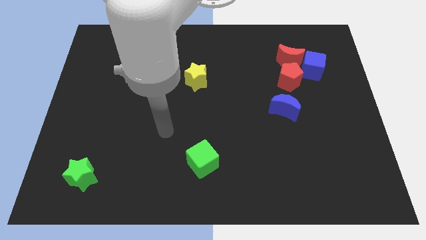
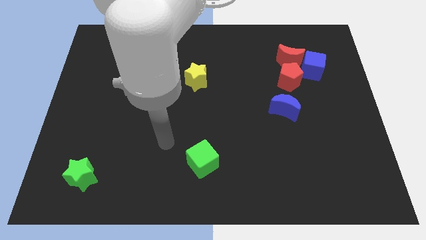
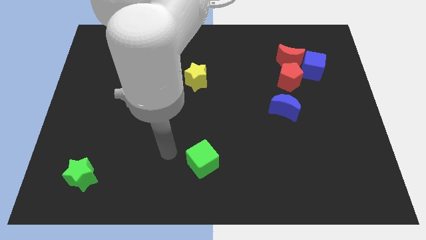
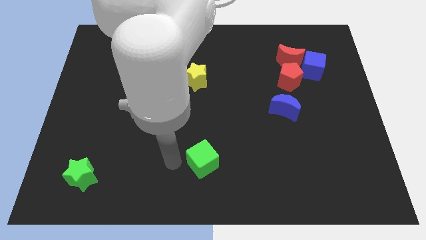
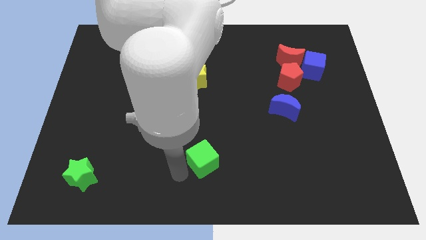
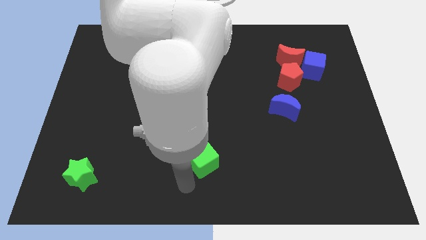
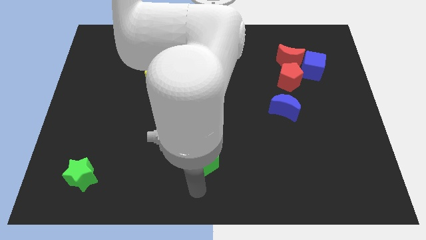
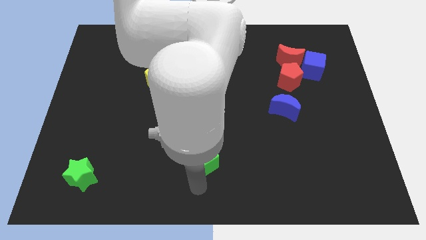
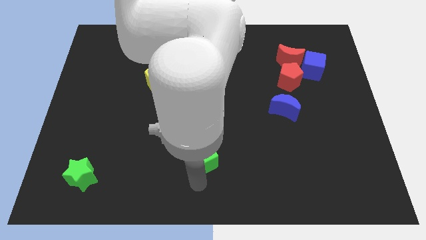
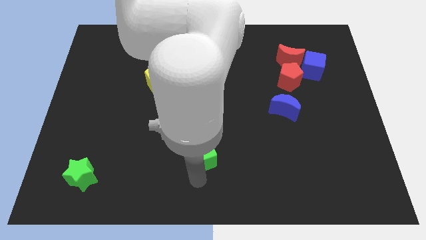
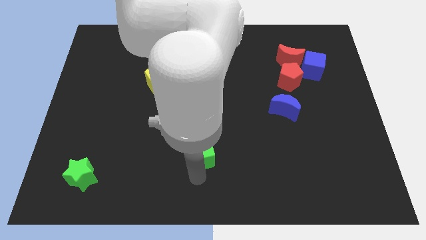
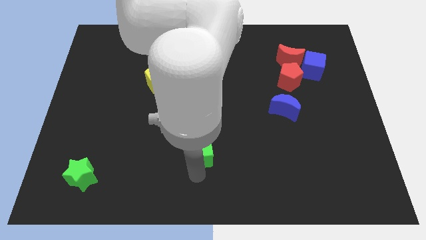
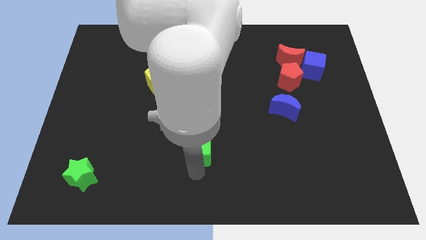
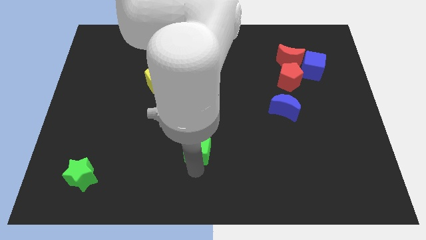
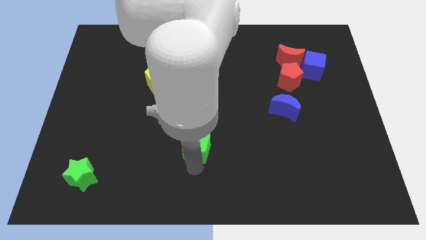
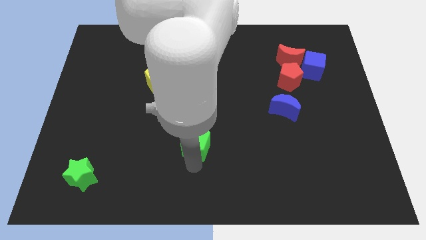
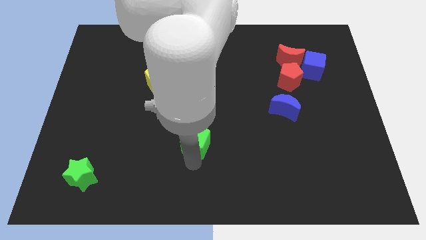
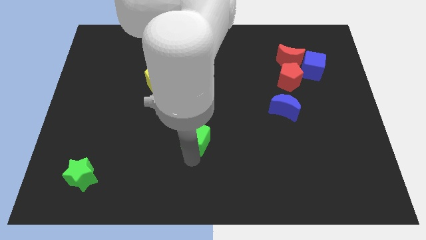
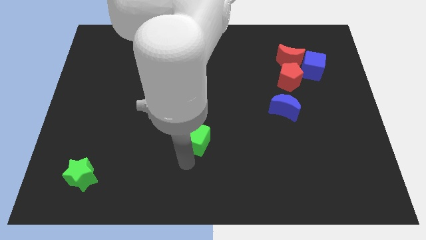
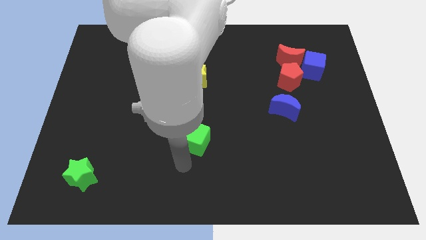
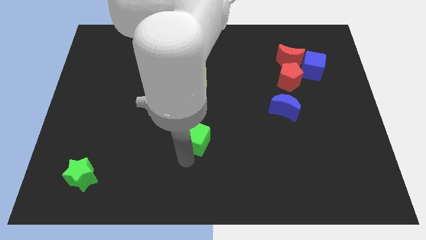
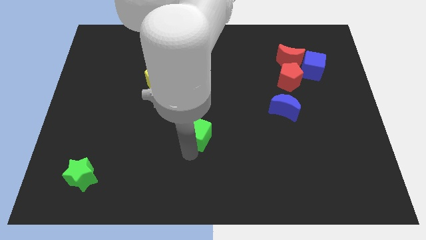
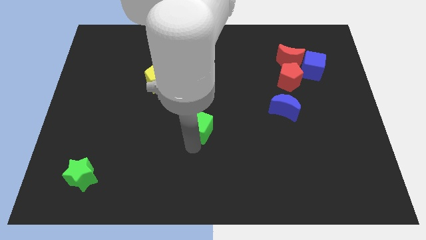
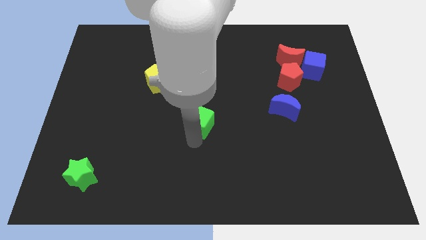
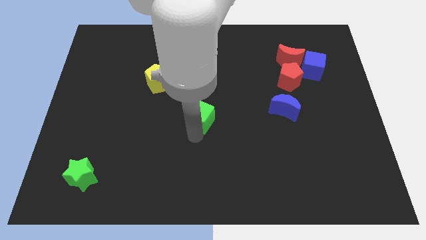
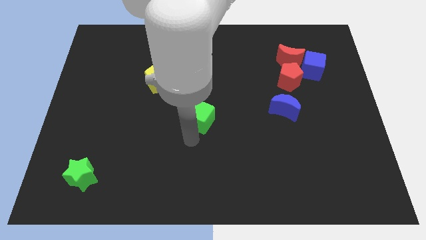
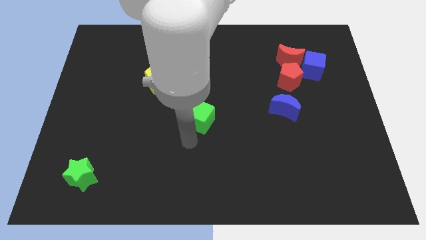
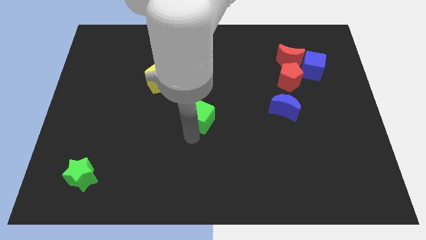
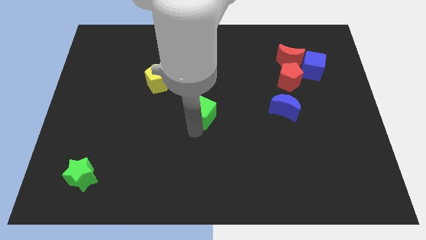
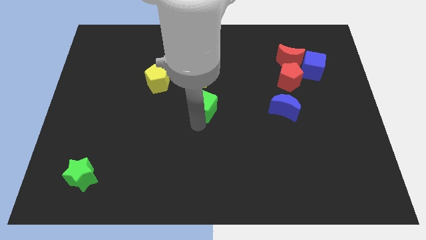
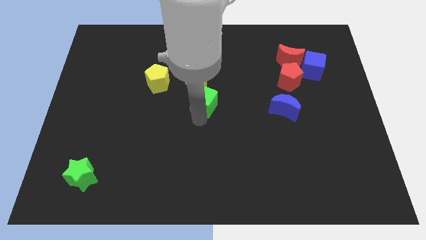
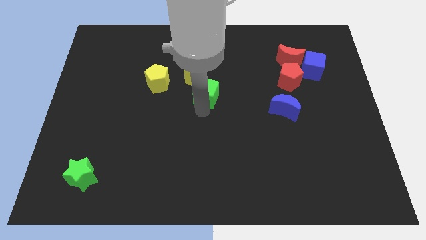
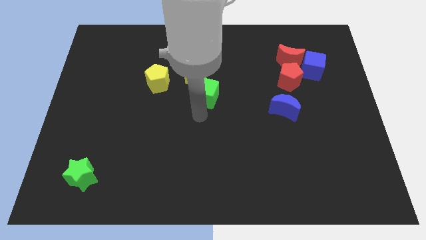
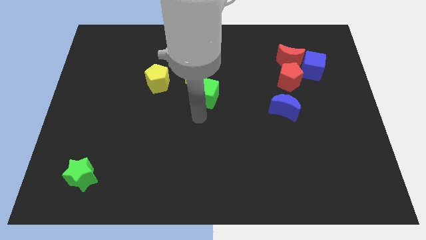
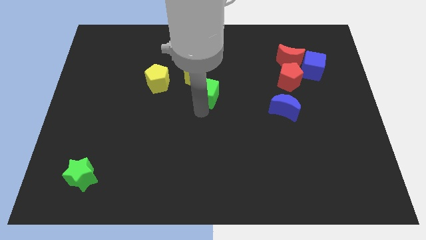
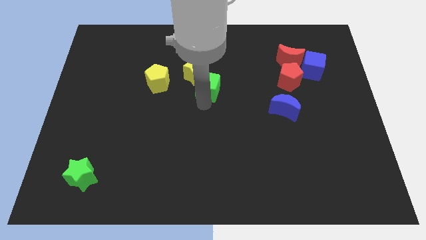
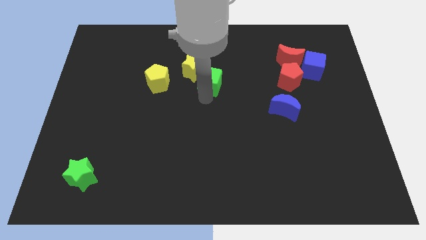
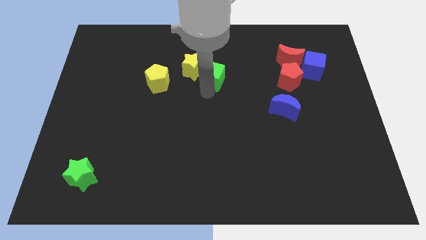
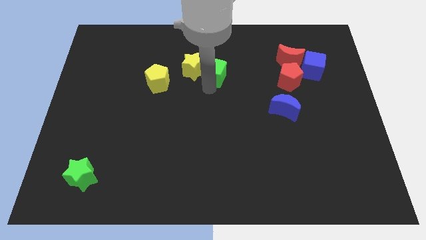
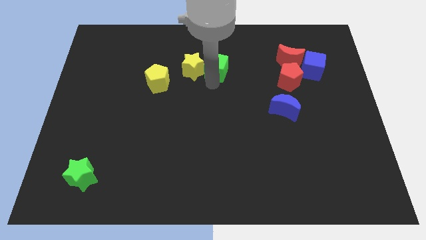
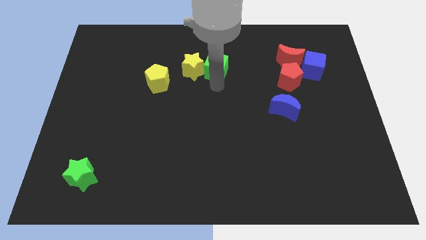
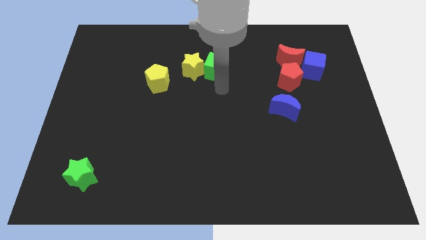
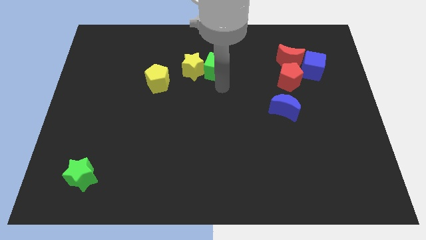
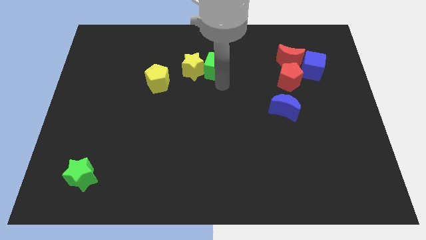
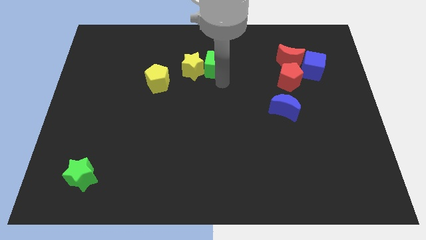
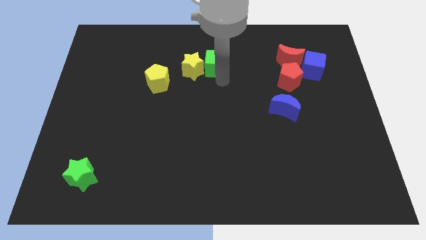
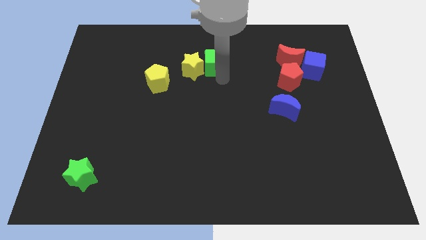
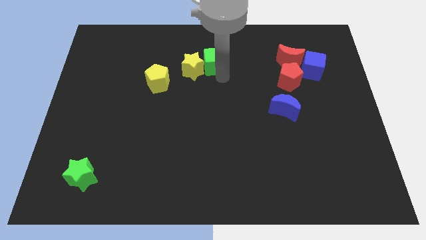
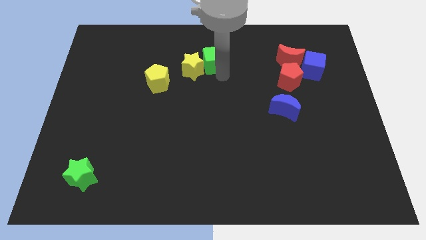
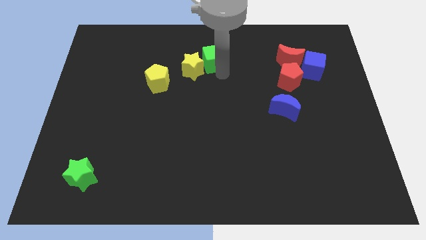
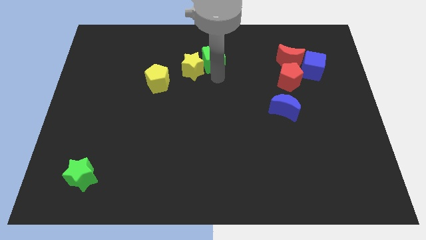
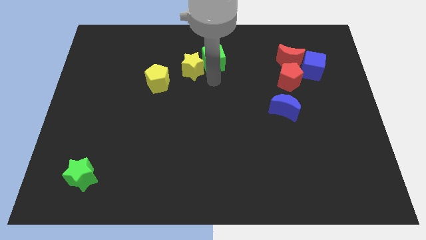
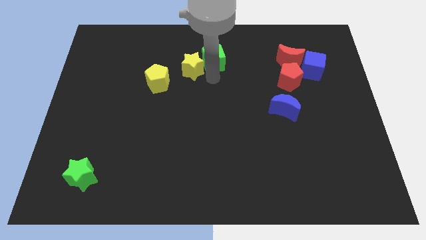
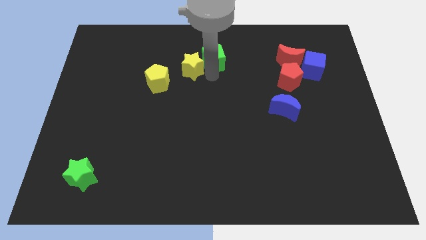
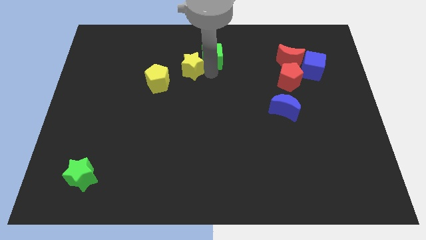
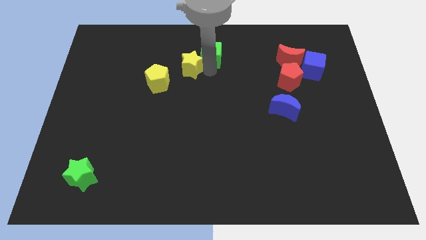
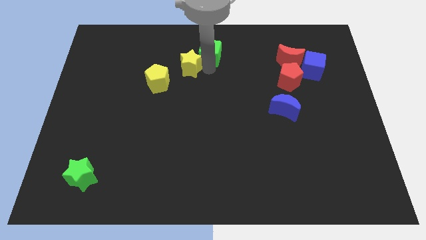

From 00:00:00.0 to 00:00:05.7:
put the green cube to the top side

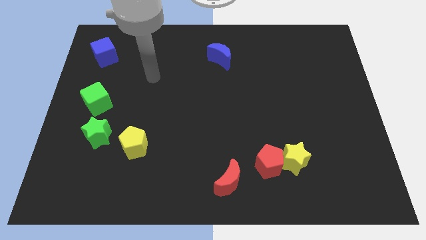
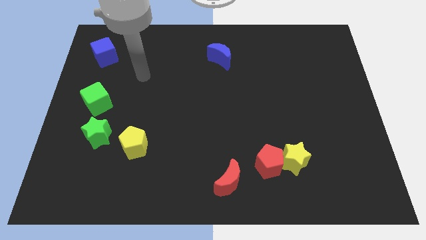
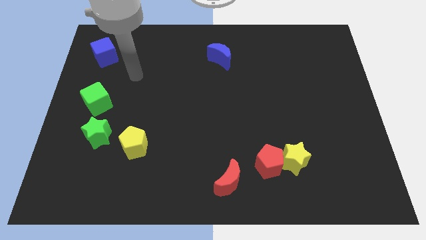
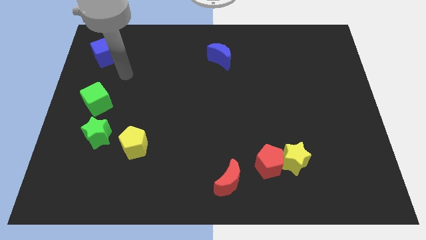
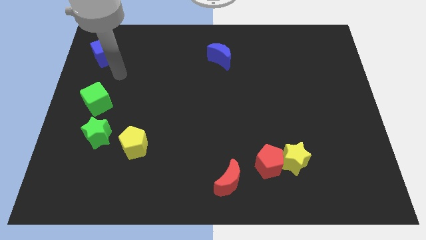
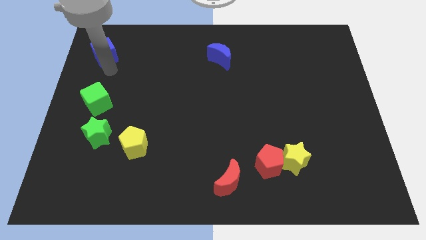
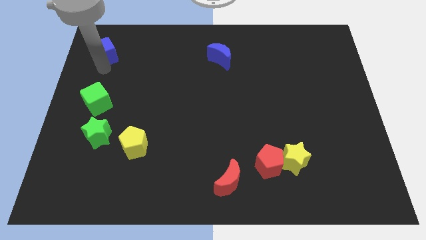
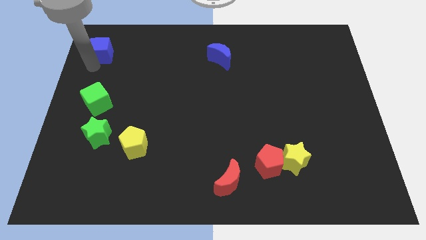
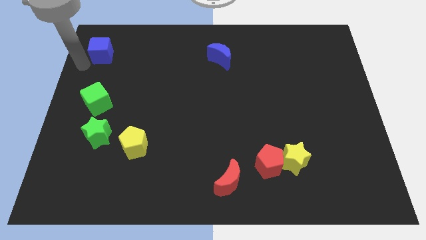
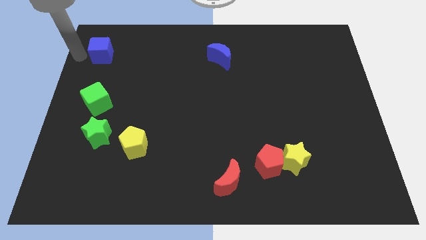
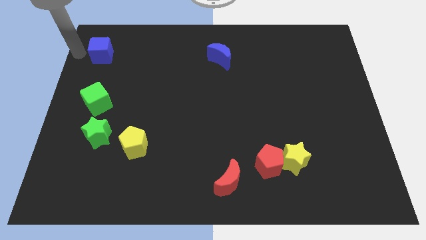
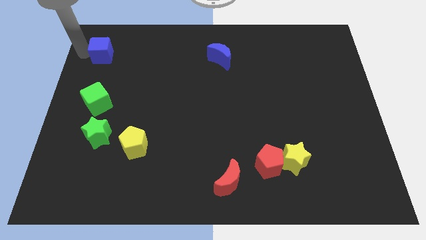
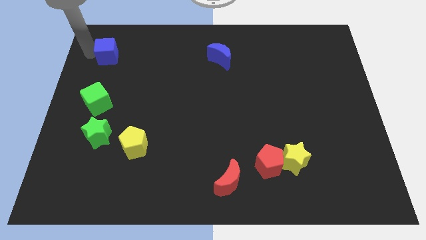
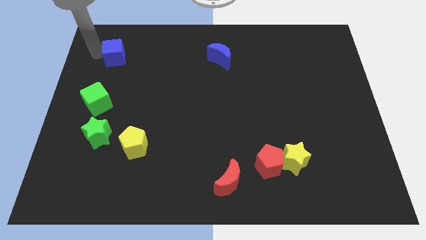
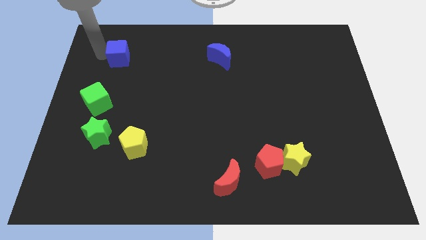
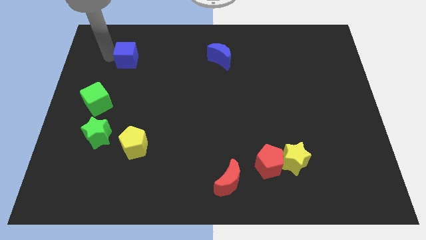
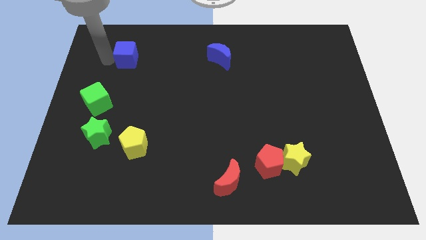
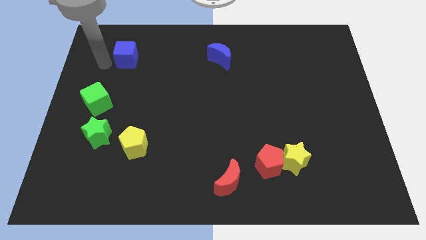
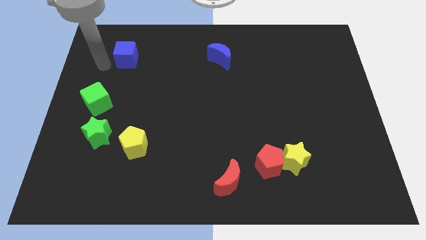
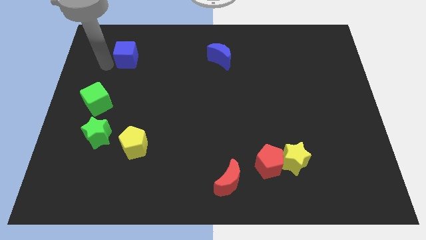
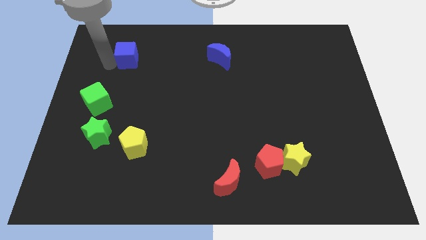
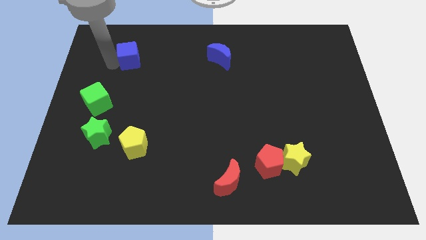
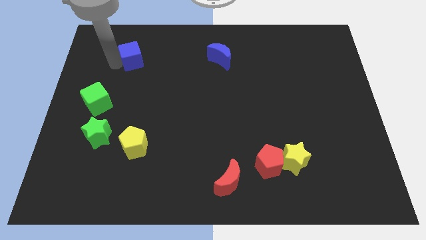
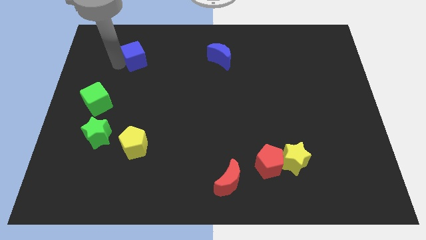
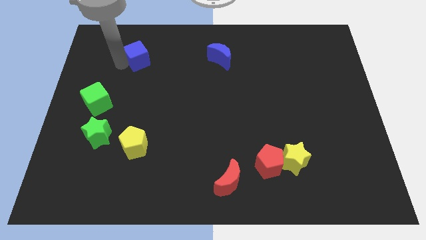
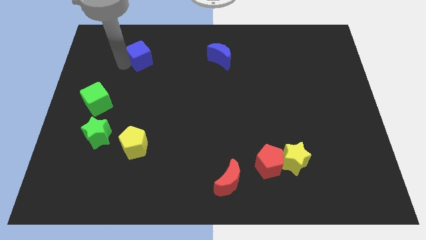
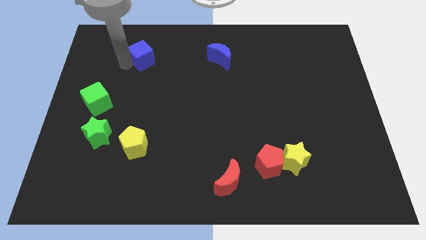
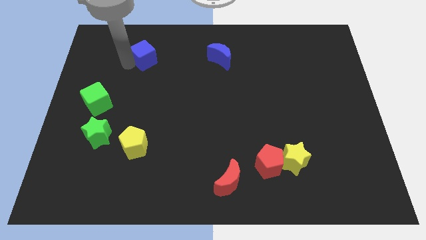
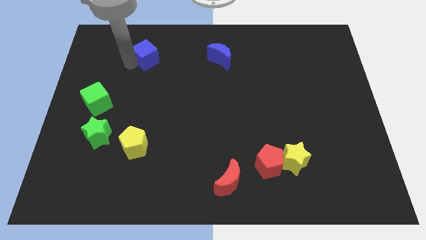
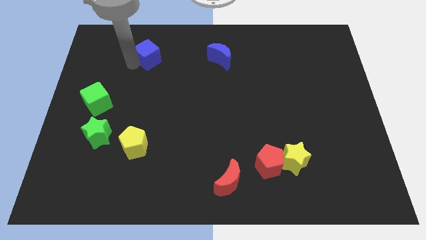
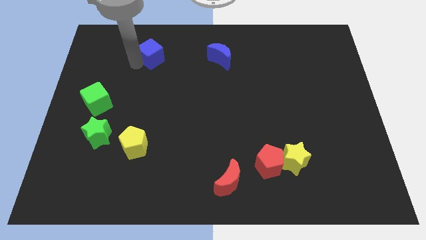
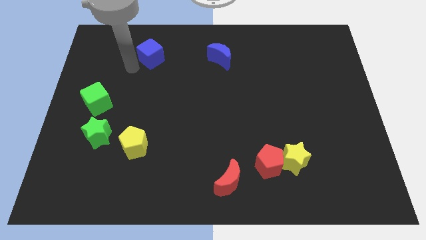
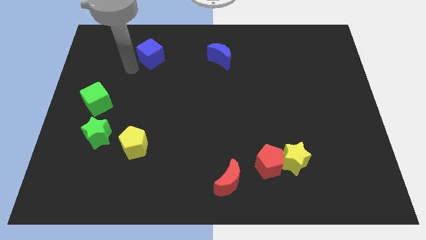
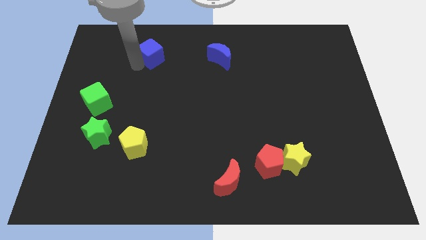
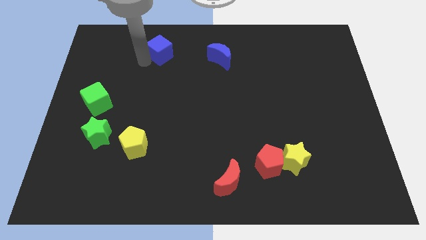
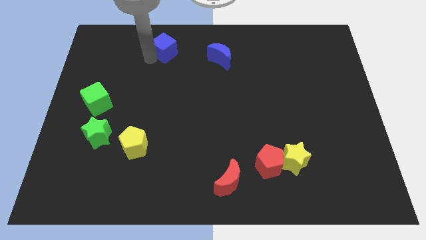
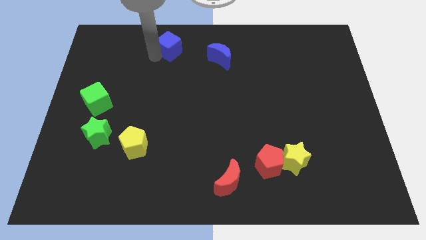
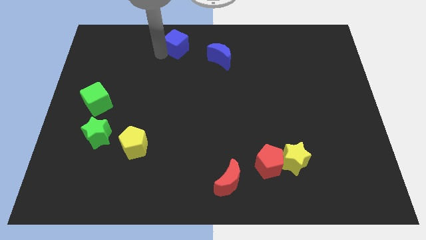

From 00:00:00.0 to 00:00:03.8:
push the blue cube to the towards your base
